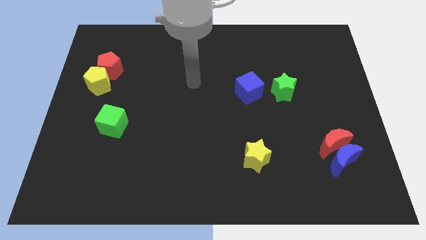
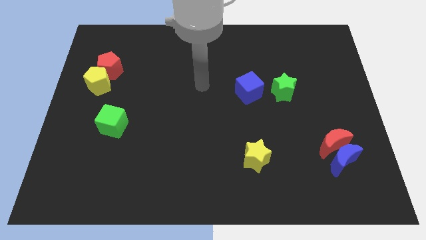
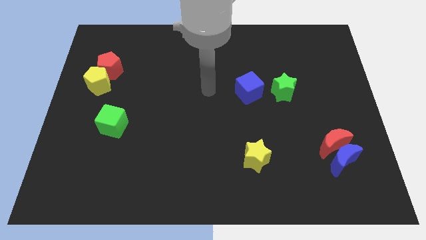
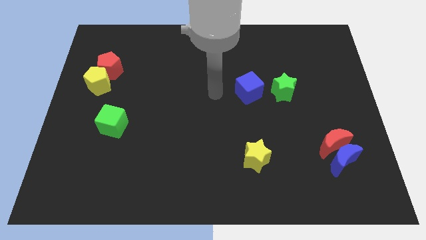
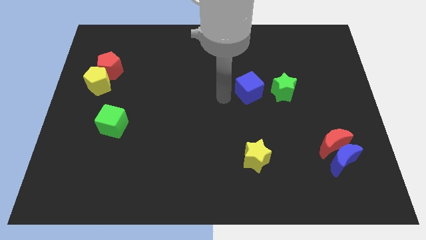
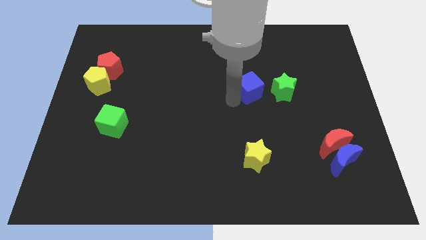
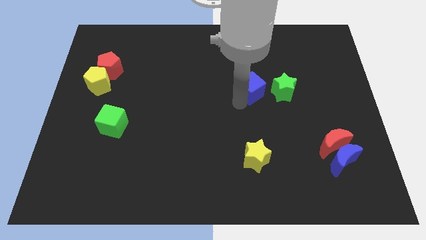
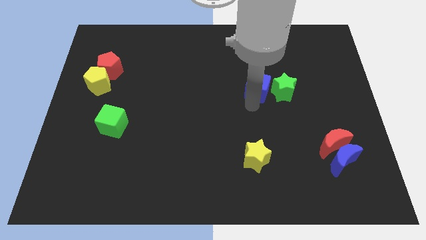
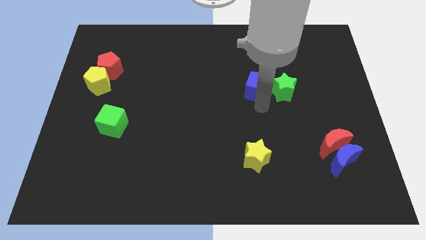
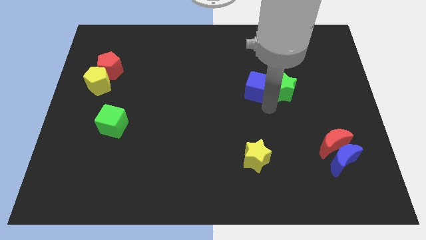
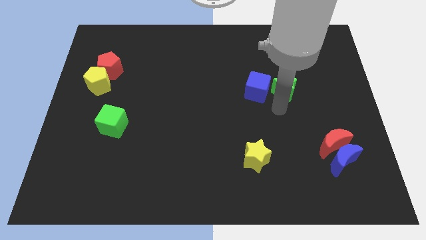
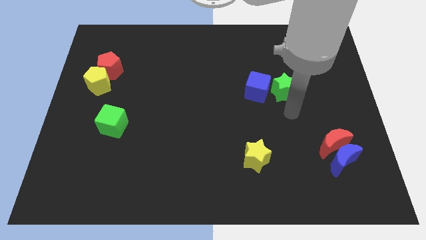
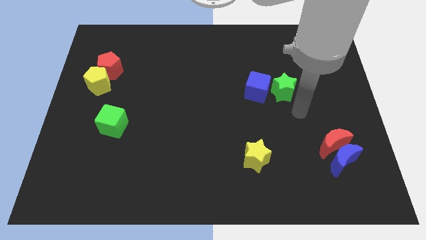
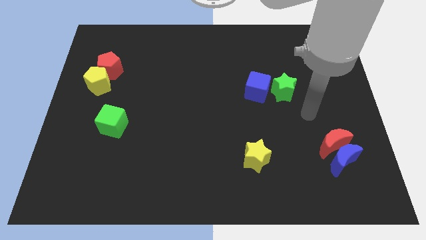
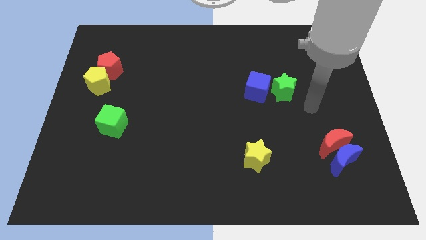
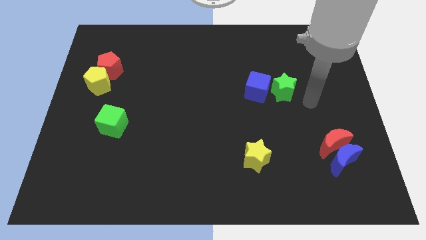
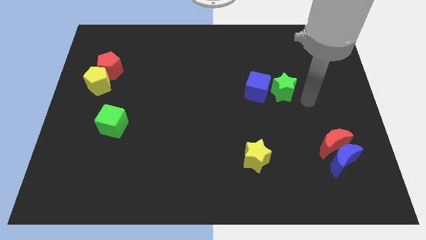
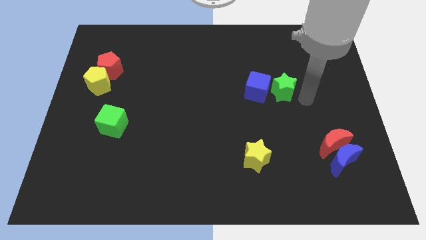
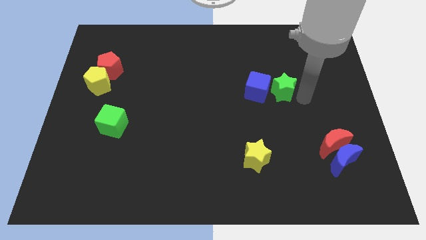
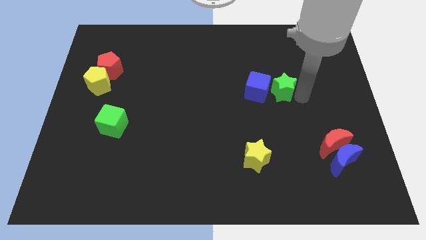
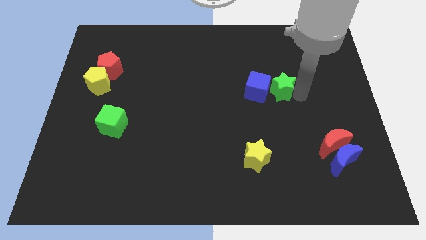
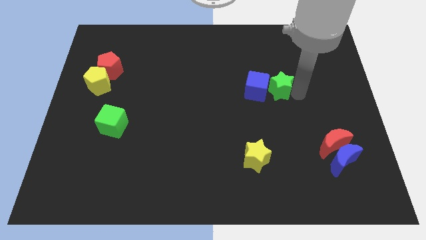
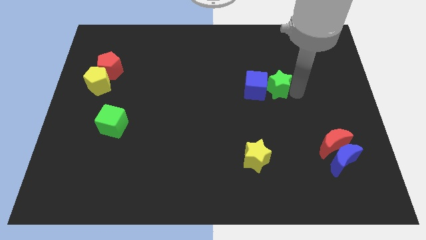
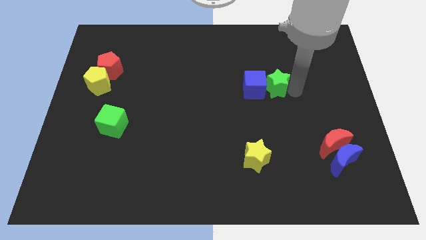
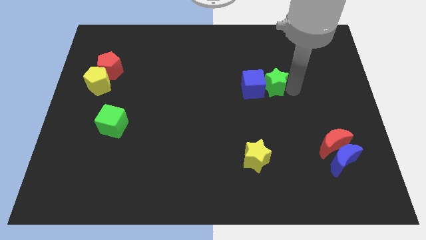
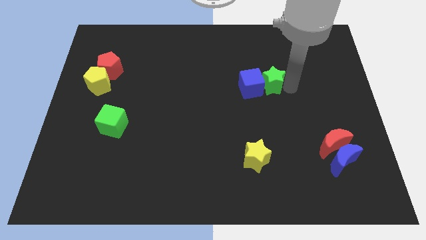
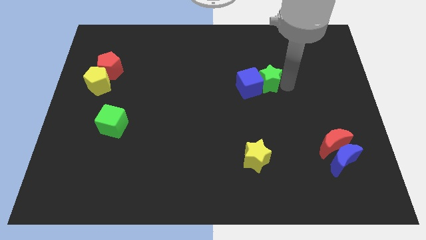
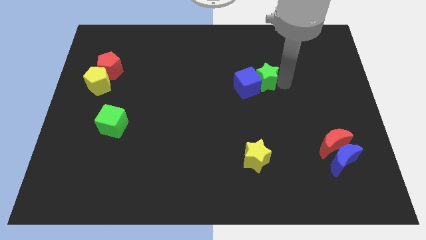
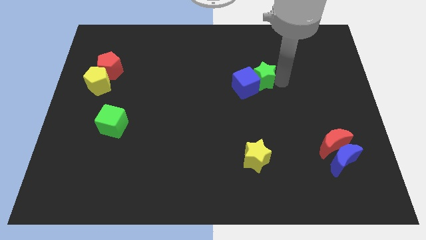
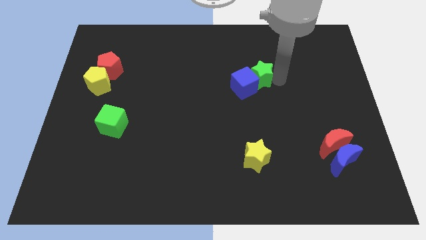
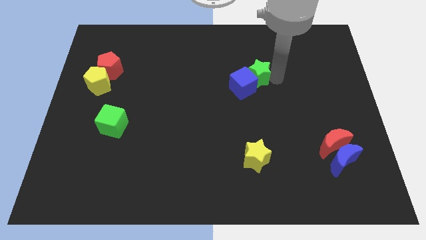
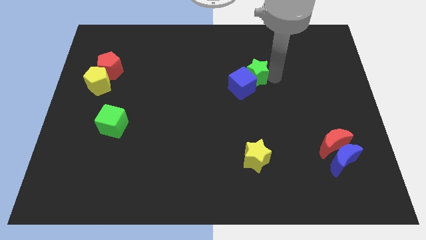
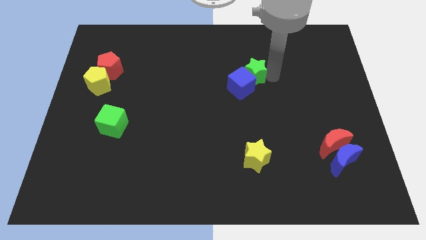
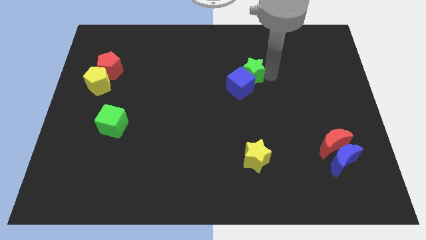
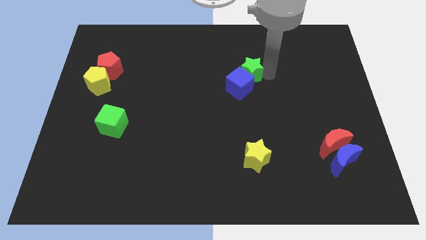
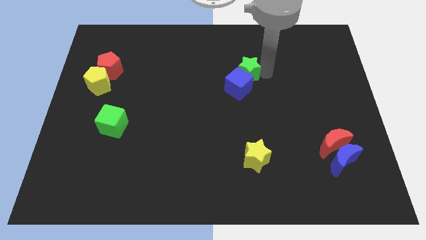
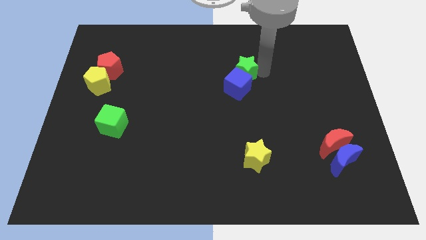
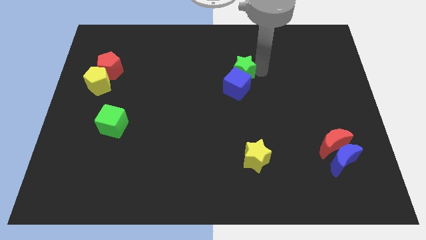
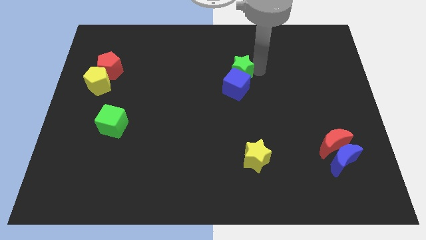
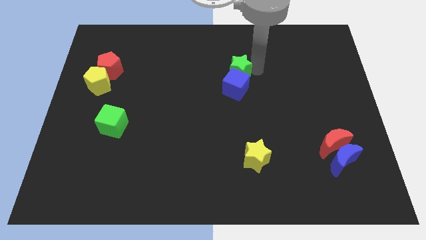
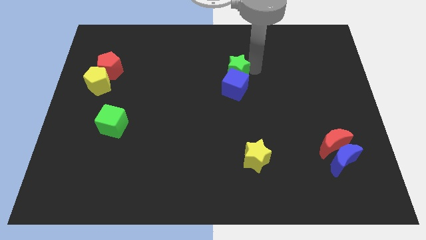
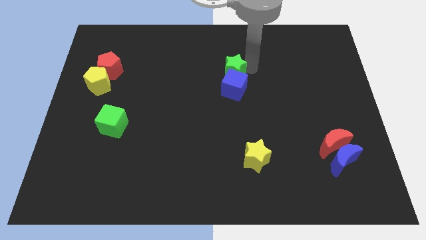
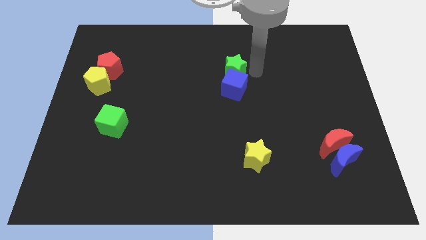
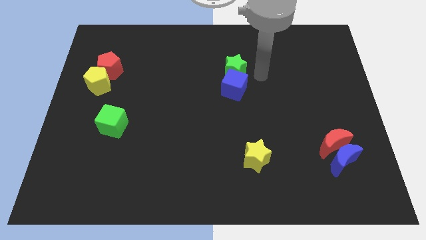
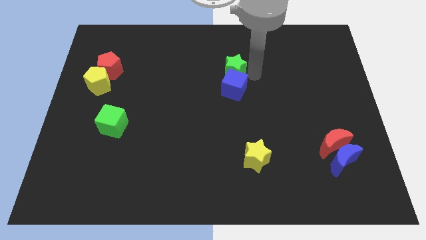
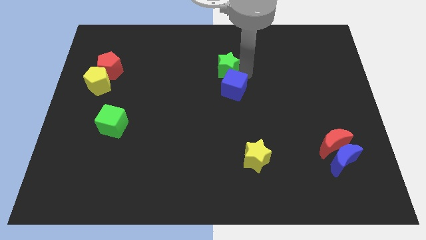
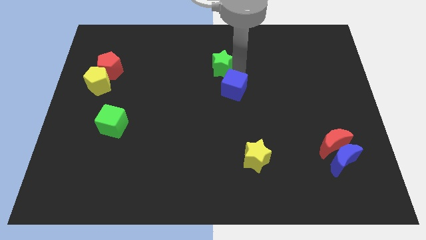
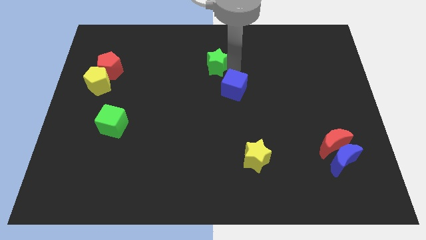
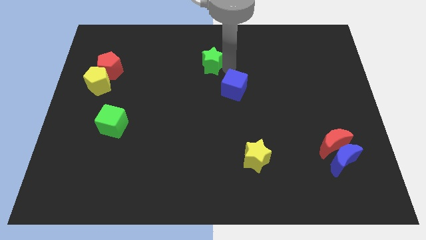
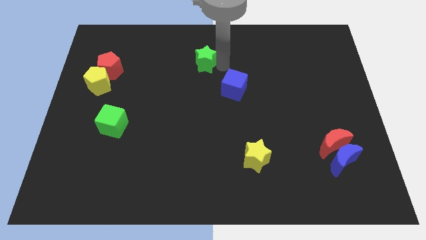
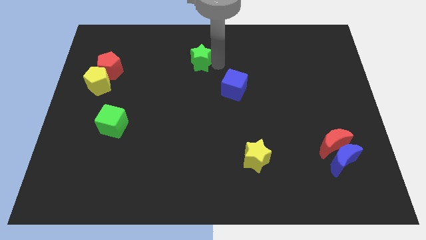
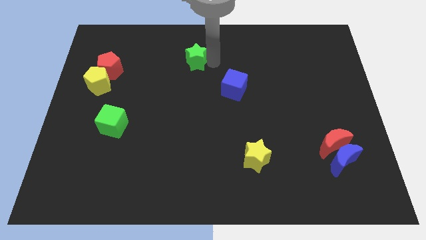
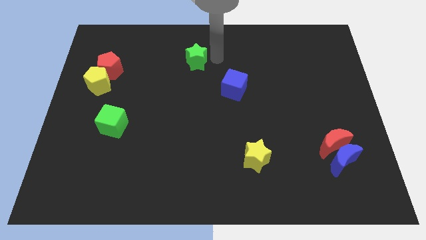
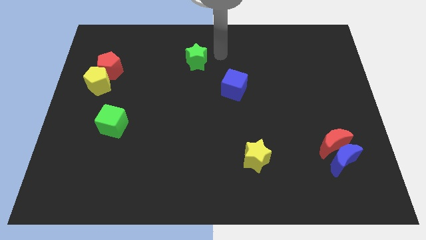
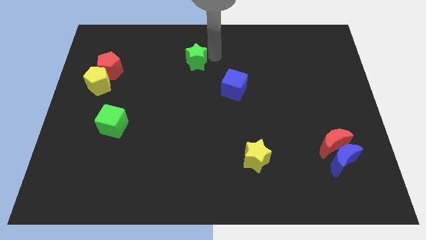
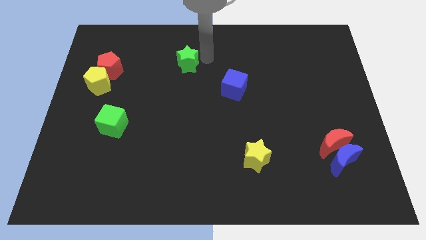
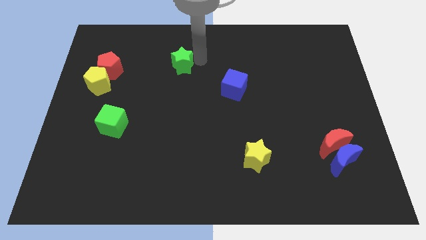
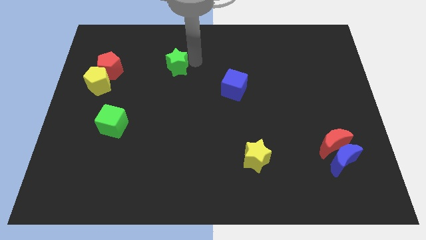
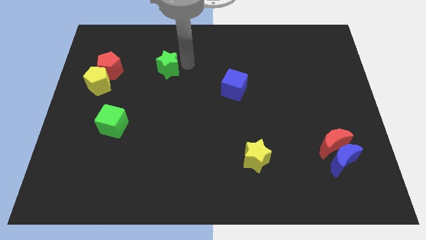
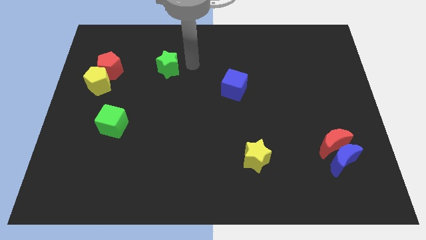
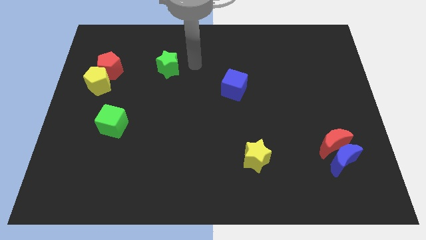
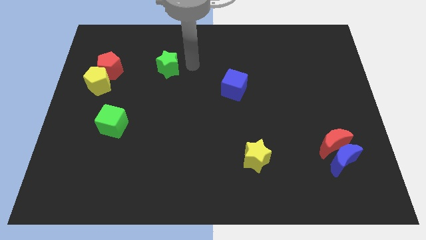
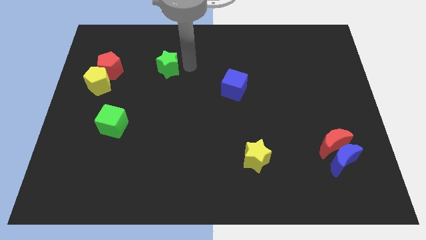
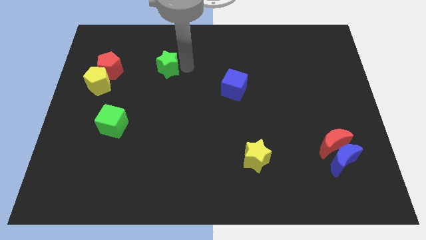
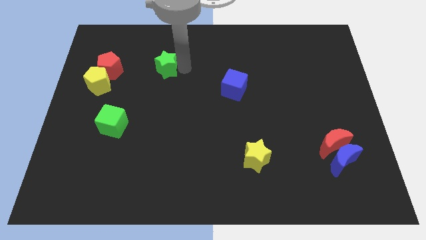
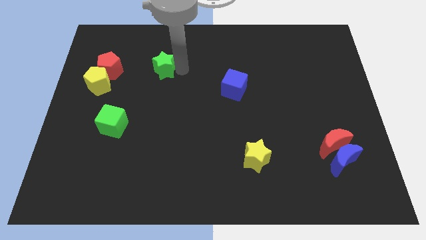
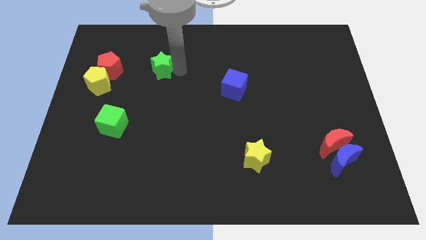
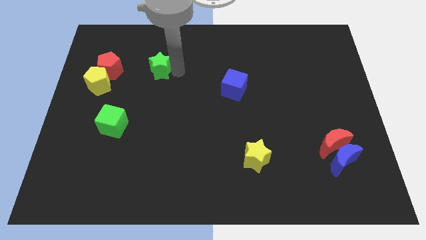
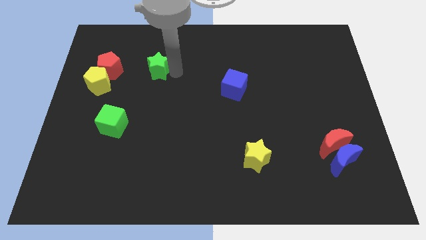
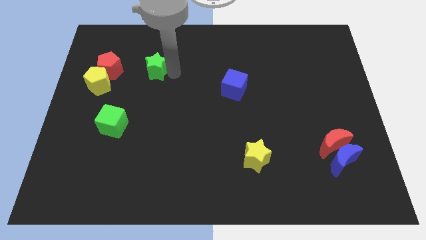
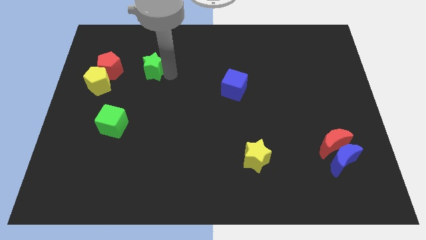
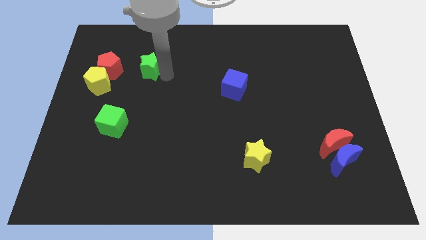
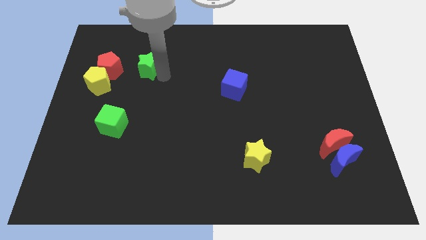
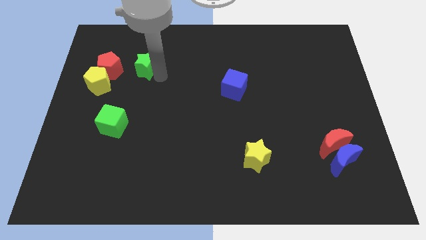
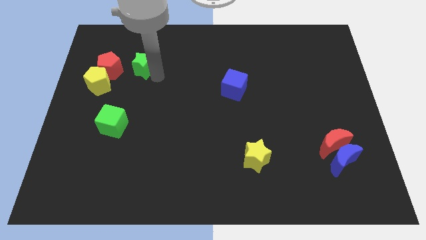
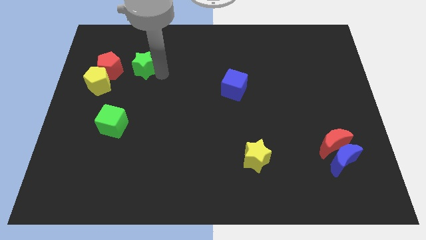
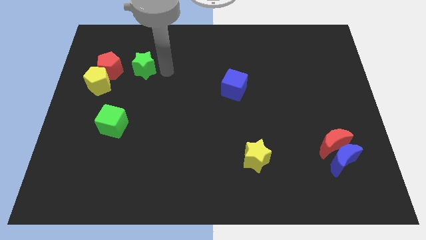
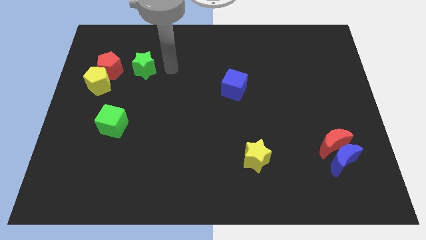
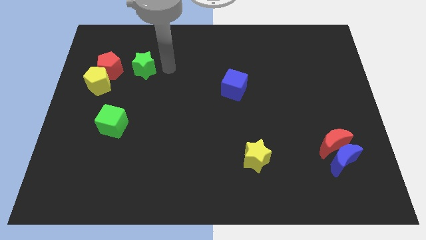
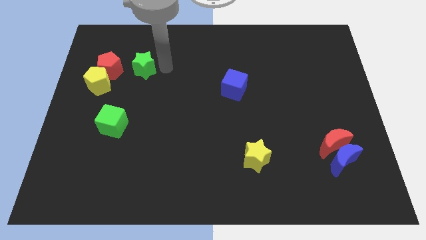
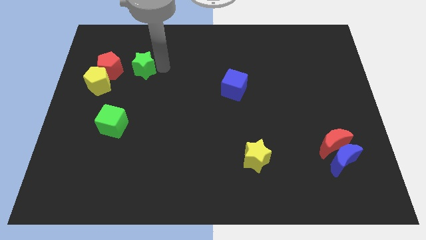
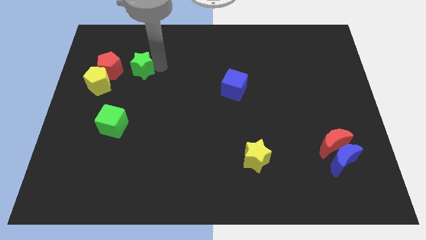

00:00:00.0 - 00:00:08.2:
move the green star to the top right of the yellow pentagon
